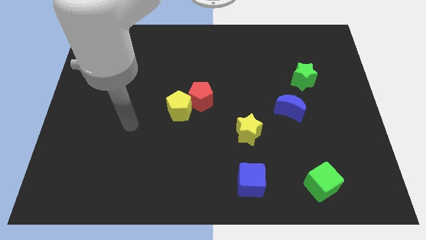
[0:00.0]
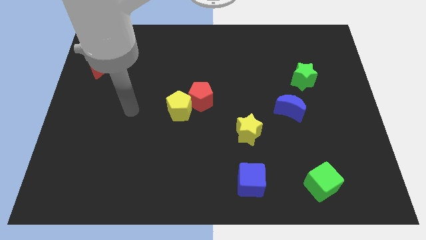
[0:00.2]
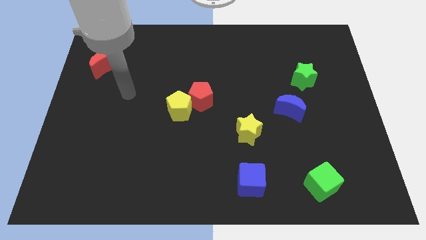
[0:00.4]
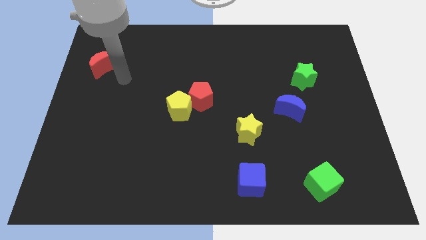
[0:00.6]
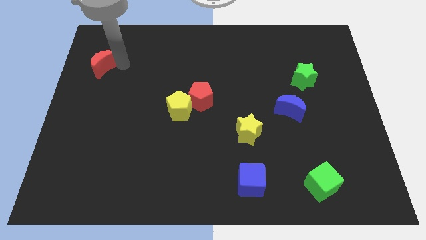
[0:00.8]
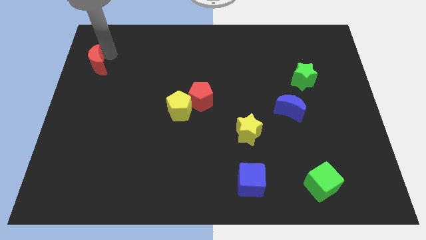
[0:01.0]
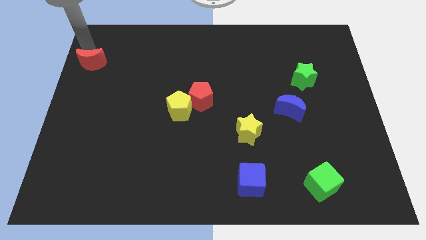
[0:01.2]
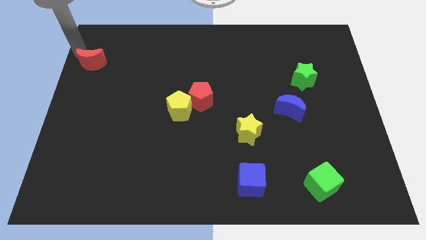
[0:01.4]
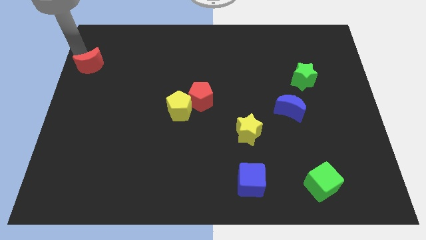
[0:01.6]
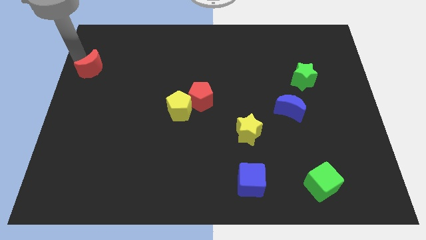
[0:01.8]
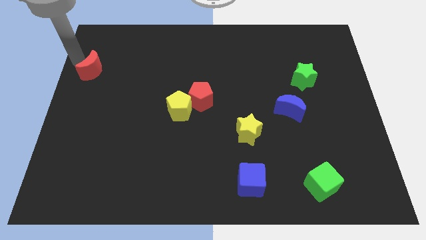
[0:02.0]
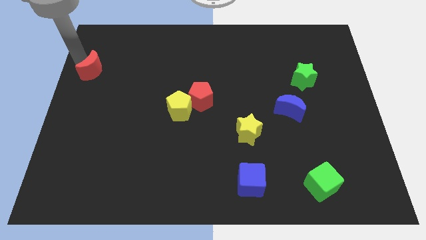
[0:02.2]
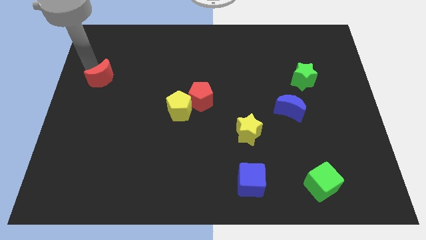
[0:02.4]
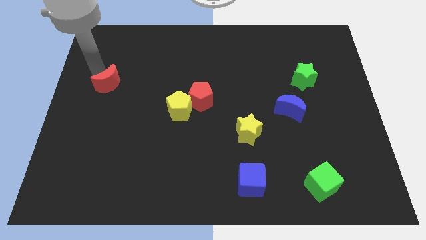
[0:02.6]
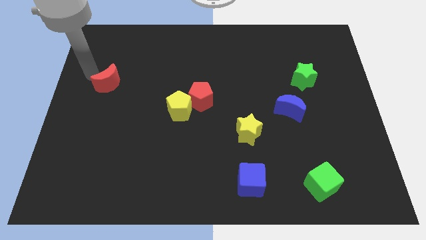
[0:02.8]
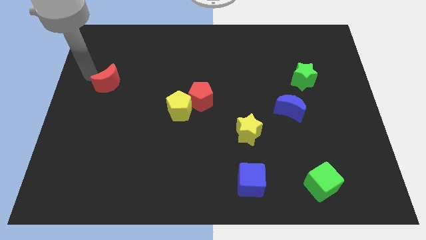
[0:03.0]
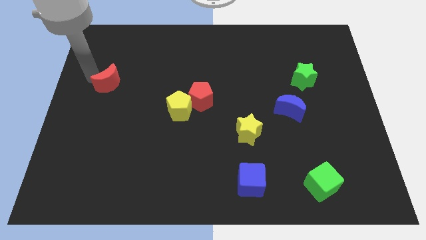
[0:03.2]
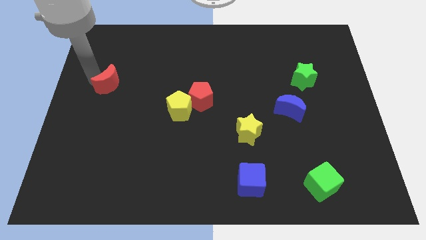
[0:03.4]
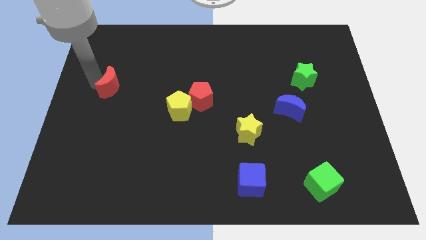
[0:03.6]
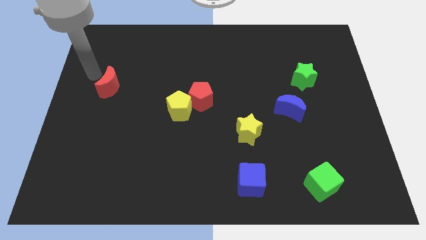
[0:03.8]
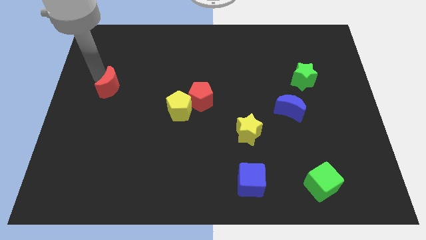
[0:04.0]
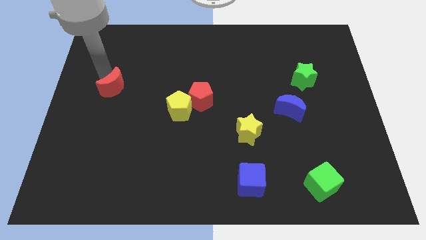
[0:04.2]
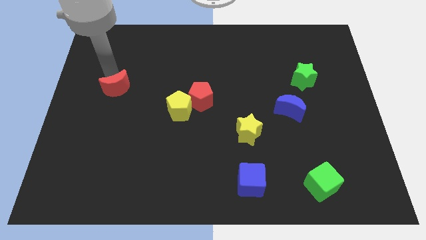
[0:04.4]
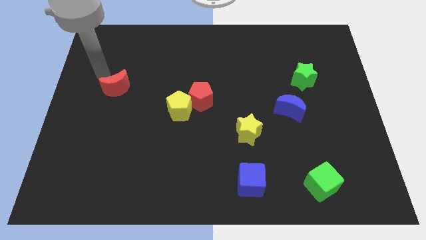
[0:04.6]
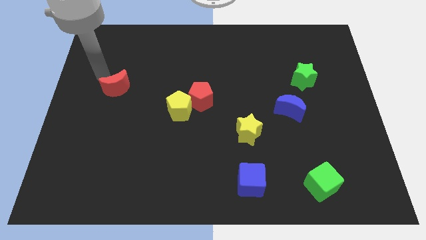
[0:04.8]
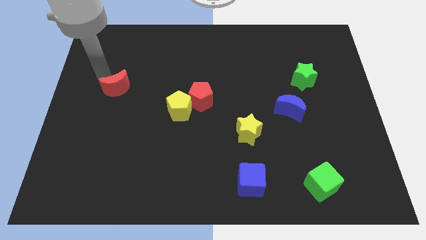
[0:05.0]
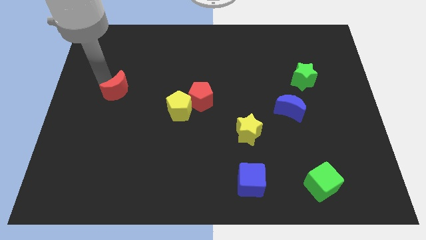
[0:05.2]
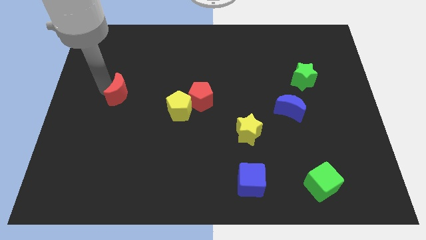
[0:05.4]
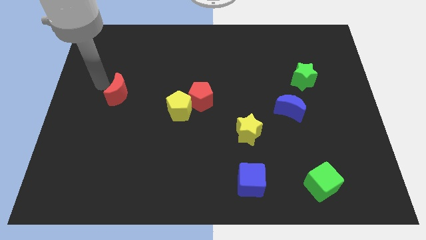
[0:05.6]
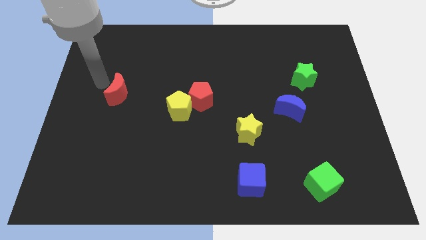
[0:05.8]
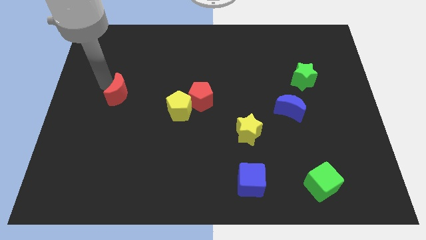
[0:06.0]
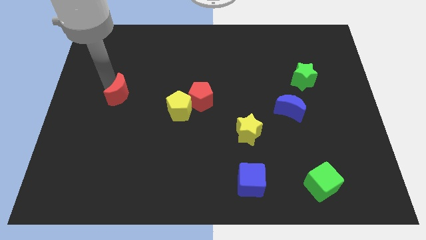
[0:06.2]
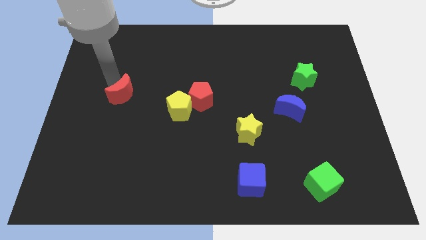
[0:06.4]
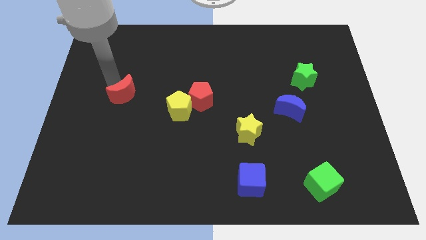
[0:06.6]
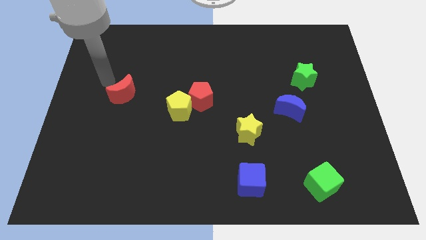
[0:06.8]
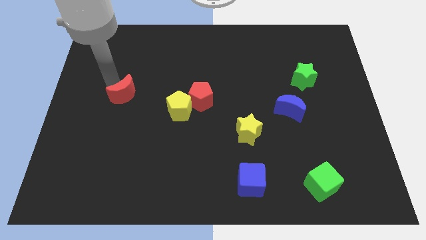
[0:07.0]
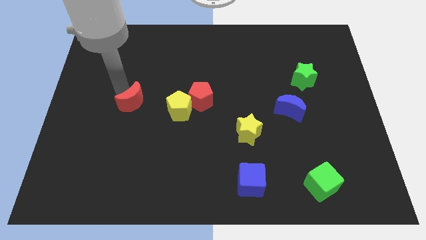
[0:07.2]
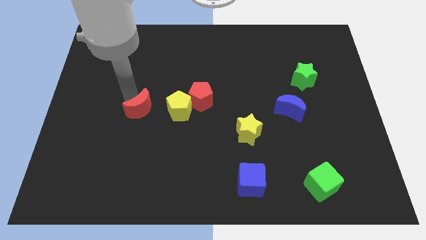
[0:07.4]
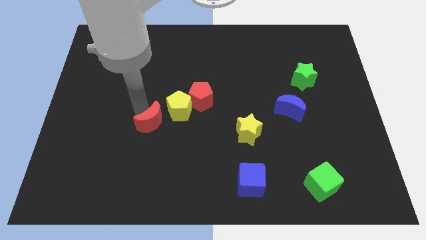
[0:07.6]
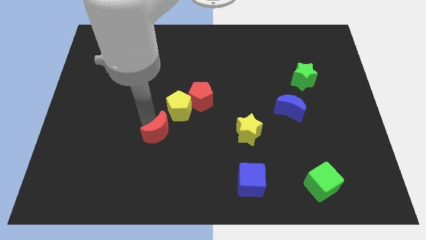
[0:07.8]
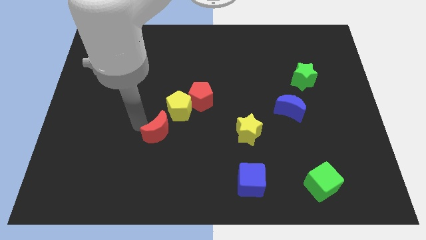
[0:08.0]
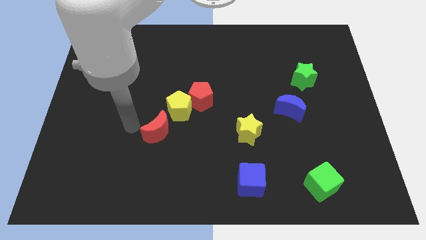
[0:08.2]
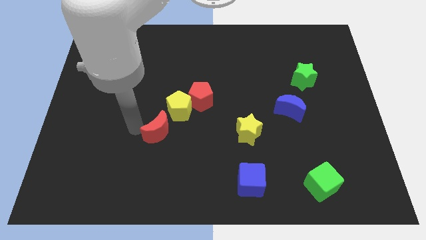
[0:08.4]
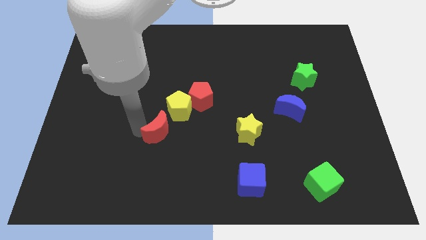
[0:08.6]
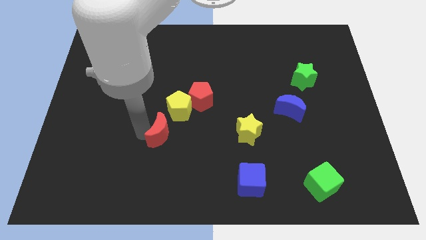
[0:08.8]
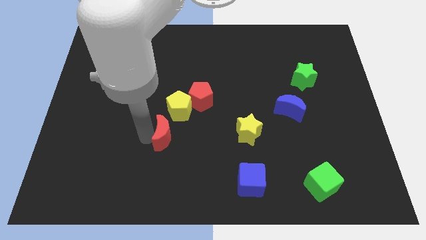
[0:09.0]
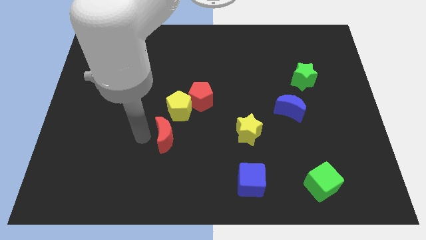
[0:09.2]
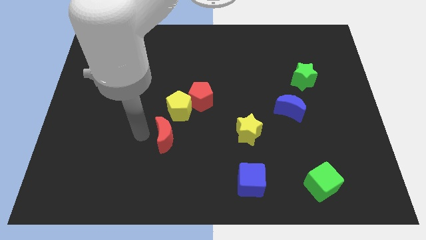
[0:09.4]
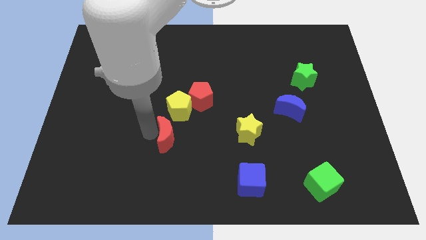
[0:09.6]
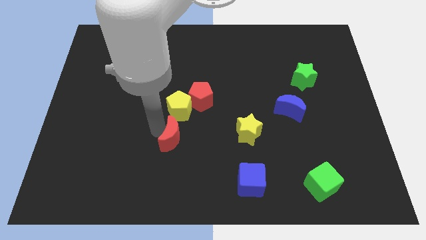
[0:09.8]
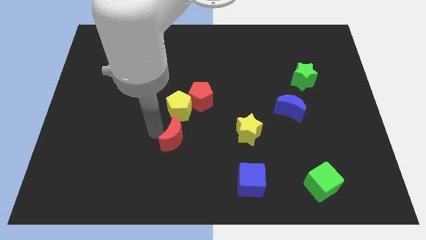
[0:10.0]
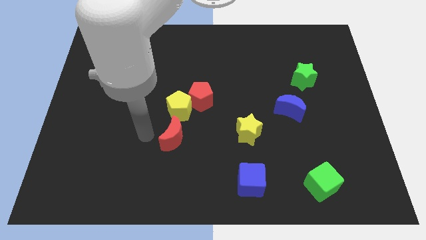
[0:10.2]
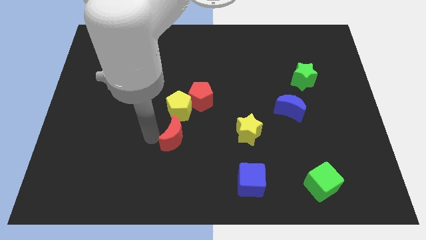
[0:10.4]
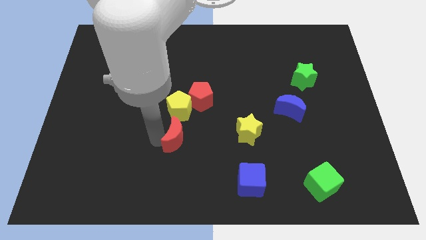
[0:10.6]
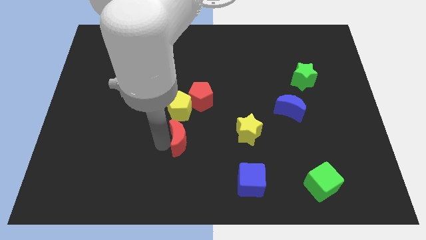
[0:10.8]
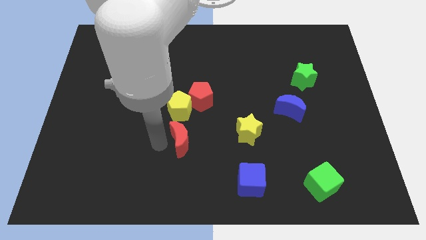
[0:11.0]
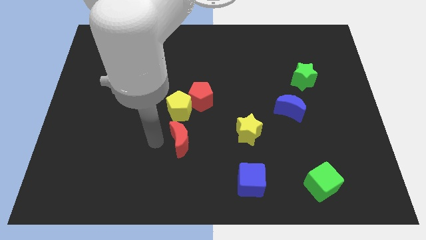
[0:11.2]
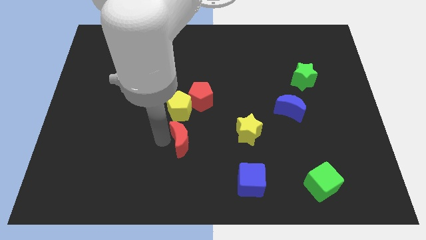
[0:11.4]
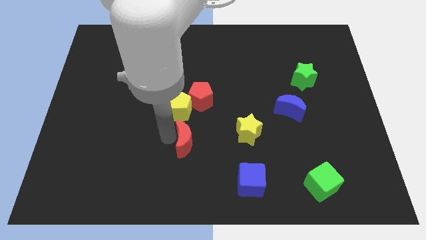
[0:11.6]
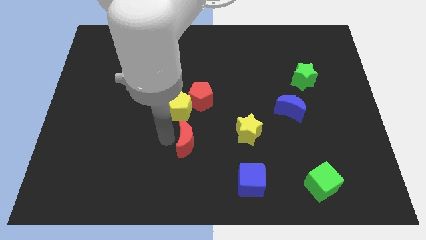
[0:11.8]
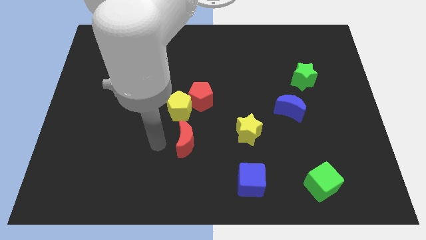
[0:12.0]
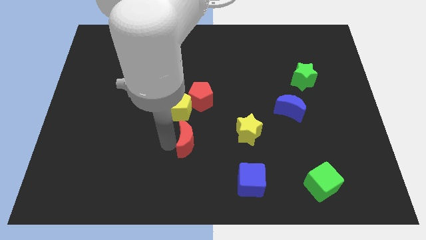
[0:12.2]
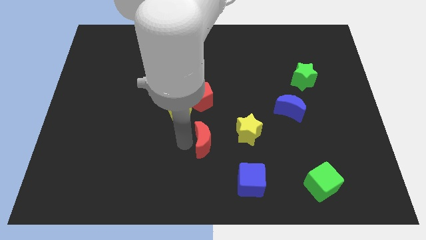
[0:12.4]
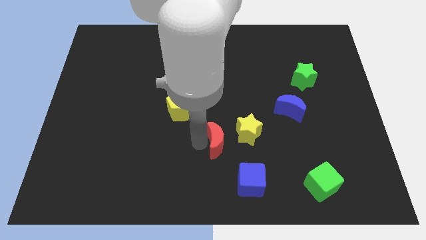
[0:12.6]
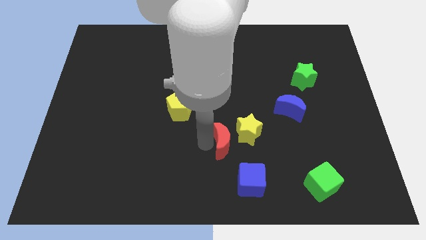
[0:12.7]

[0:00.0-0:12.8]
slide the red moon close to the yellow star

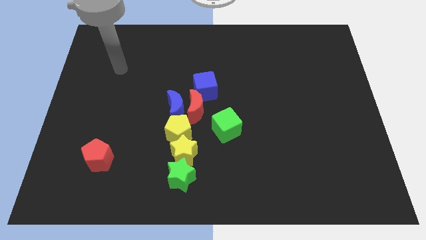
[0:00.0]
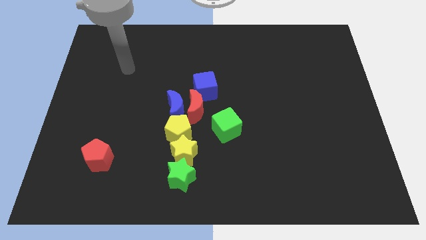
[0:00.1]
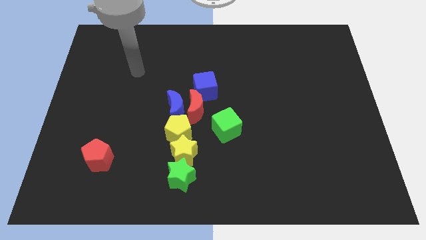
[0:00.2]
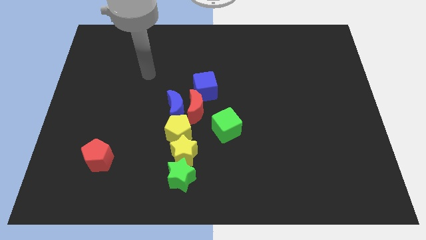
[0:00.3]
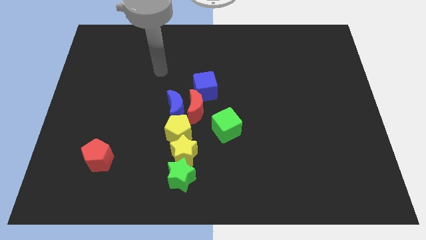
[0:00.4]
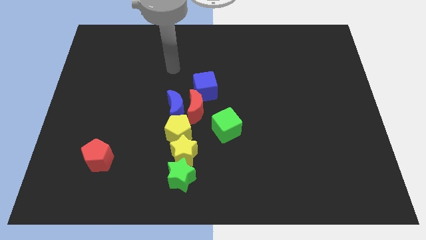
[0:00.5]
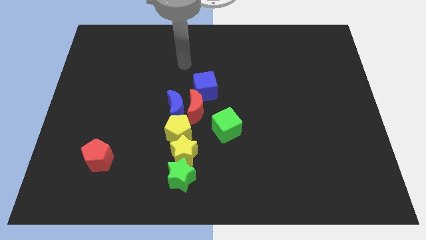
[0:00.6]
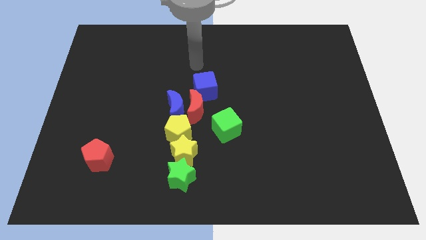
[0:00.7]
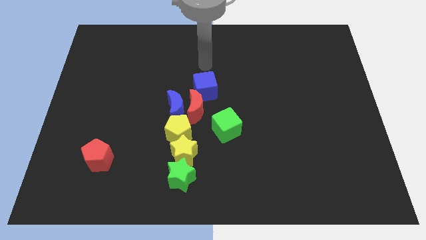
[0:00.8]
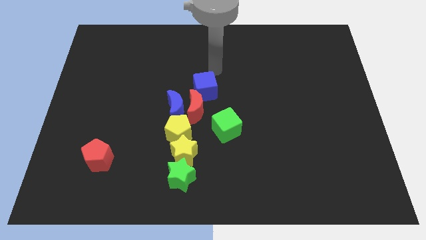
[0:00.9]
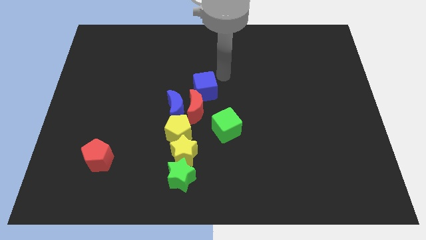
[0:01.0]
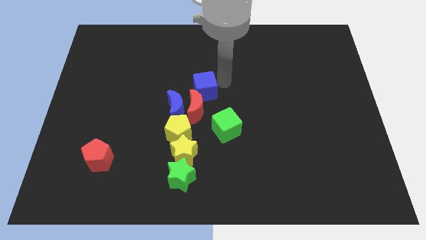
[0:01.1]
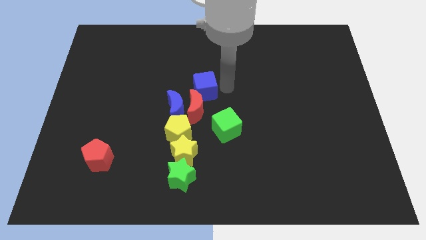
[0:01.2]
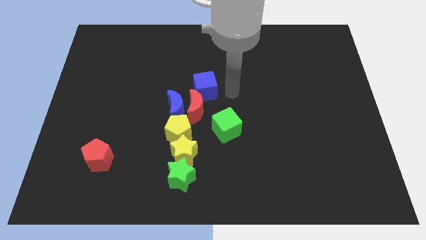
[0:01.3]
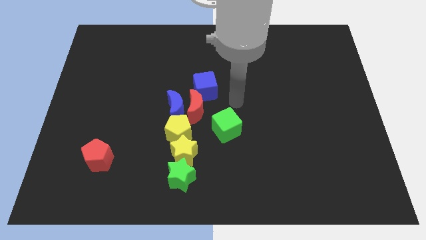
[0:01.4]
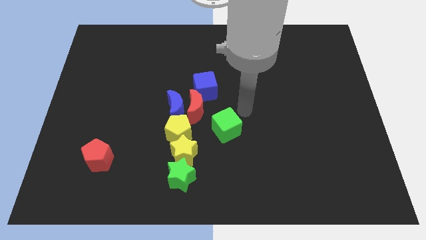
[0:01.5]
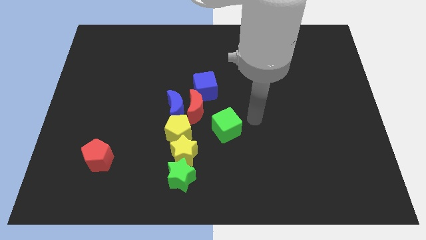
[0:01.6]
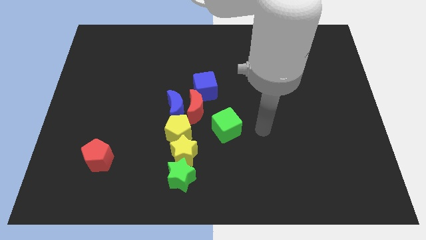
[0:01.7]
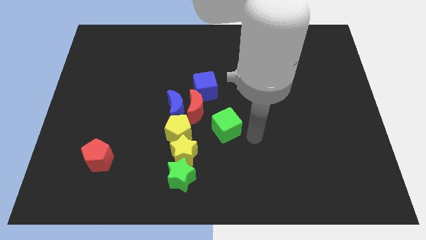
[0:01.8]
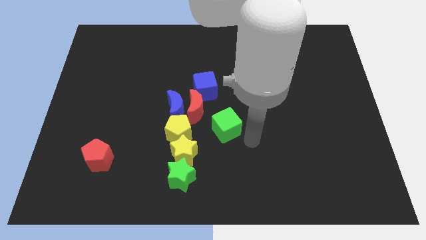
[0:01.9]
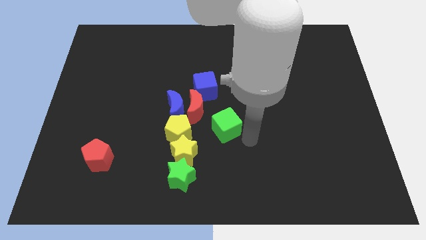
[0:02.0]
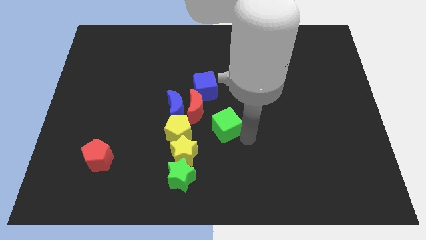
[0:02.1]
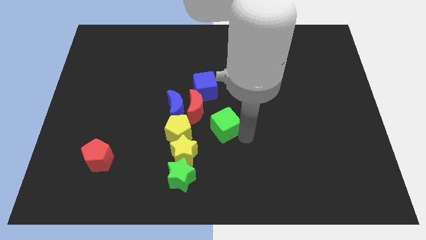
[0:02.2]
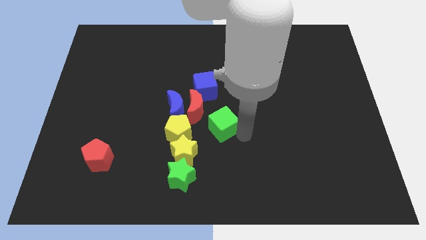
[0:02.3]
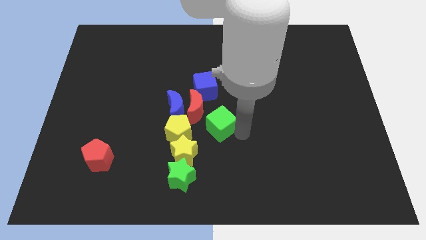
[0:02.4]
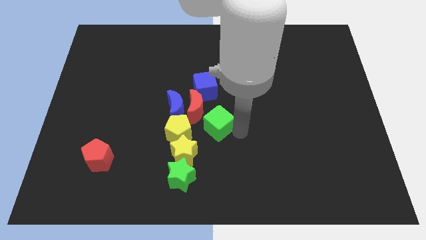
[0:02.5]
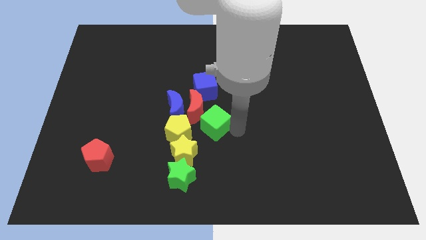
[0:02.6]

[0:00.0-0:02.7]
slide the green cube close to the red moon
